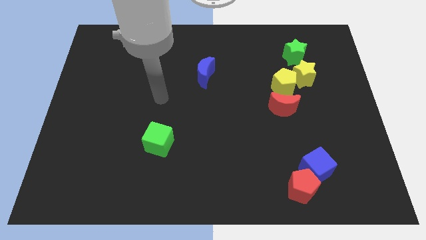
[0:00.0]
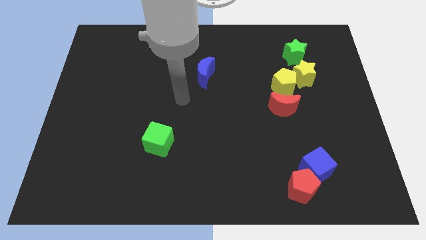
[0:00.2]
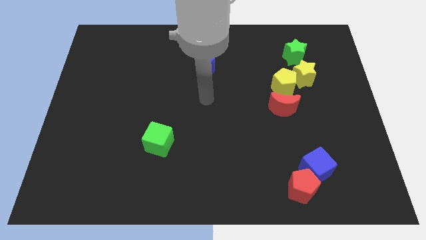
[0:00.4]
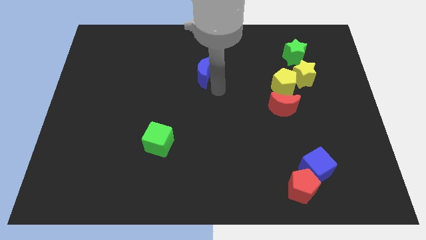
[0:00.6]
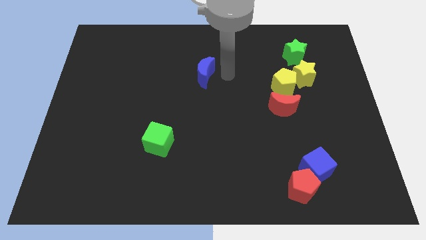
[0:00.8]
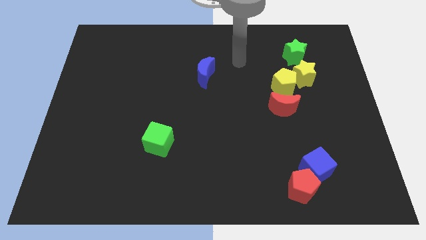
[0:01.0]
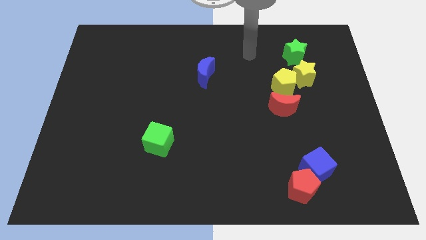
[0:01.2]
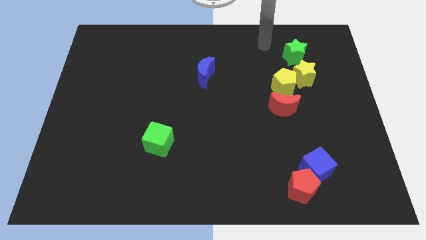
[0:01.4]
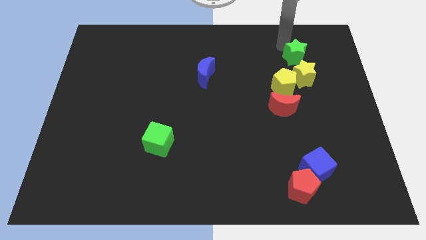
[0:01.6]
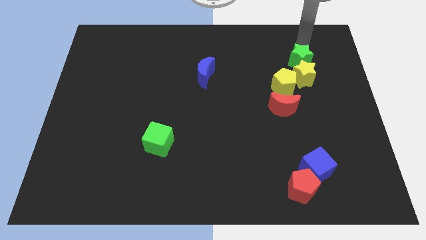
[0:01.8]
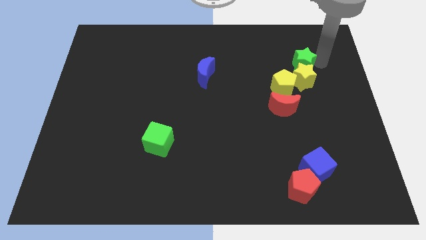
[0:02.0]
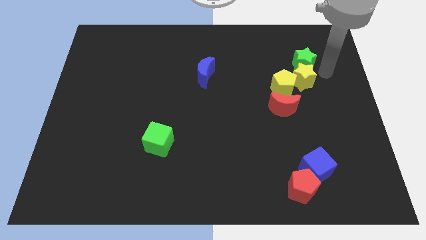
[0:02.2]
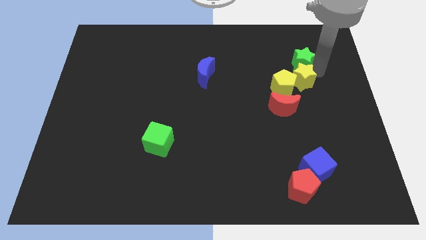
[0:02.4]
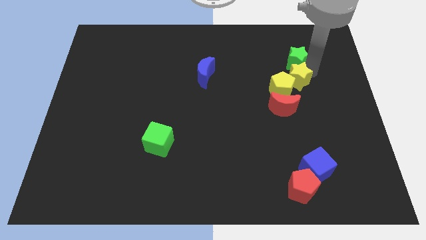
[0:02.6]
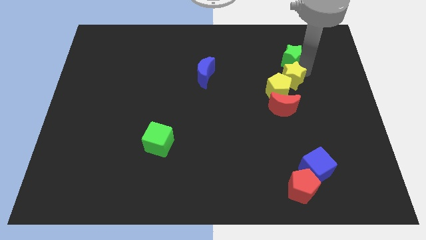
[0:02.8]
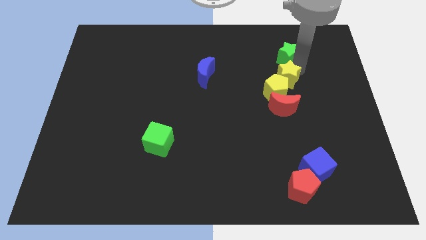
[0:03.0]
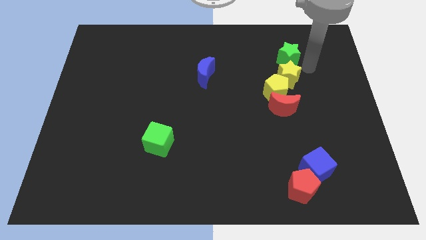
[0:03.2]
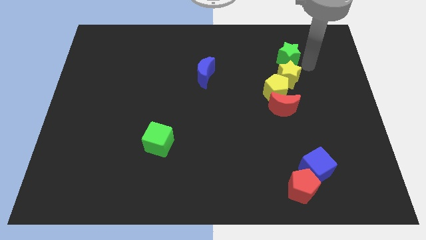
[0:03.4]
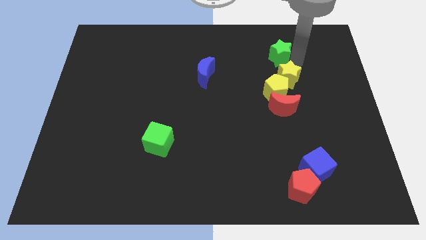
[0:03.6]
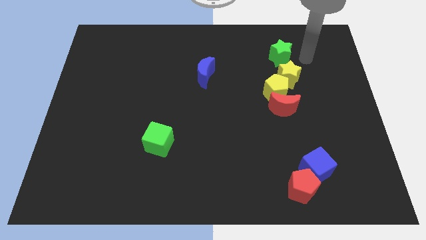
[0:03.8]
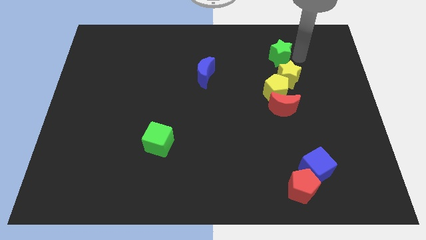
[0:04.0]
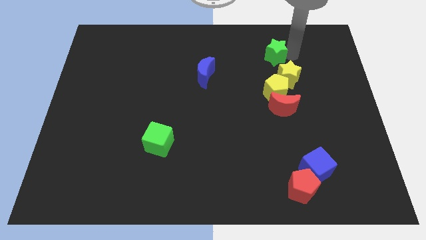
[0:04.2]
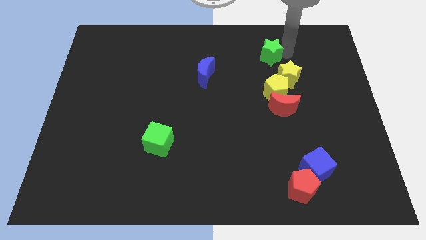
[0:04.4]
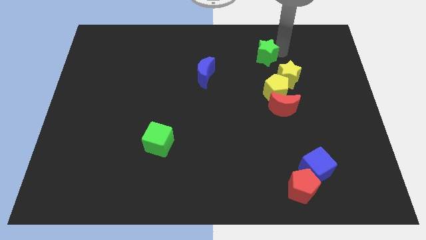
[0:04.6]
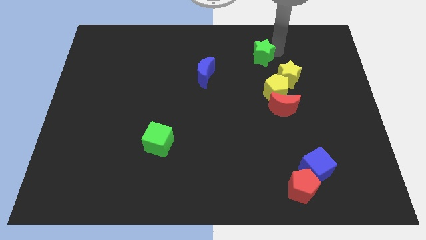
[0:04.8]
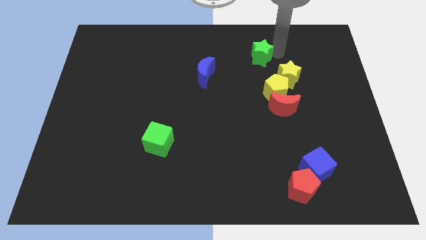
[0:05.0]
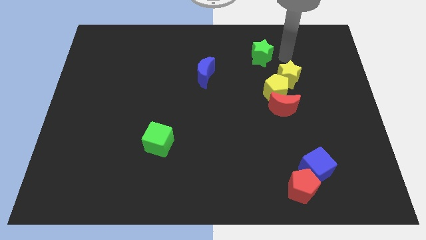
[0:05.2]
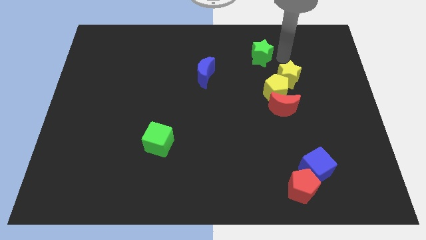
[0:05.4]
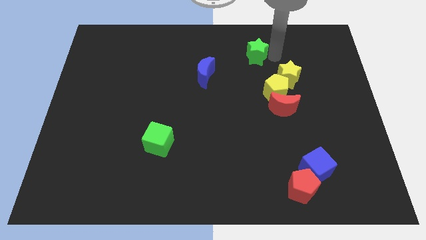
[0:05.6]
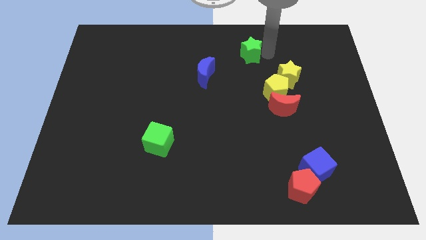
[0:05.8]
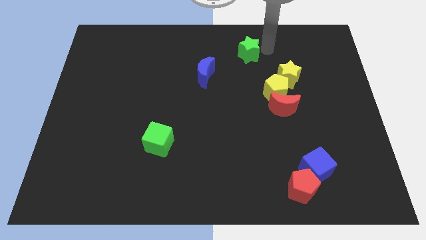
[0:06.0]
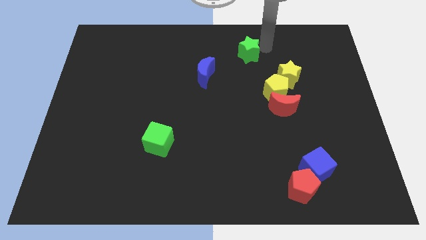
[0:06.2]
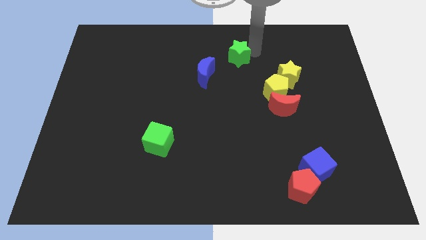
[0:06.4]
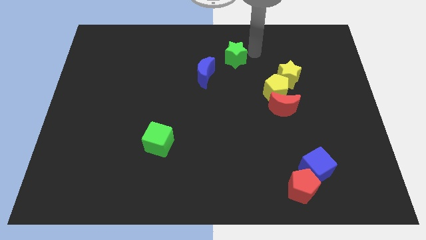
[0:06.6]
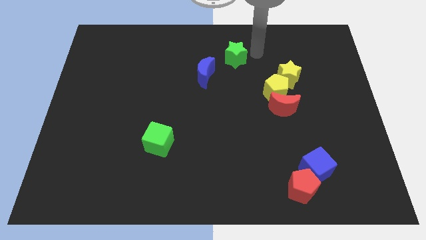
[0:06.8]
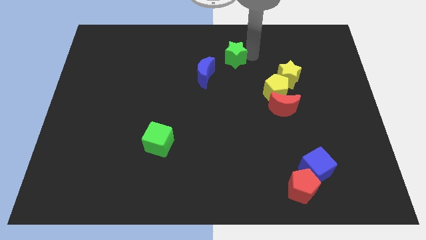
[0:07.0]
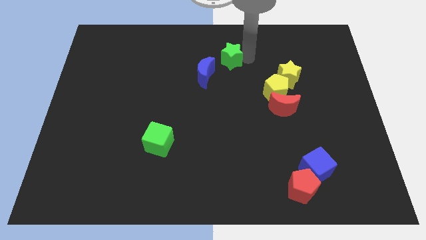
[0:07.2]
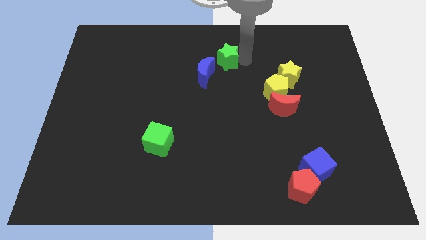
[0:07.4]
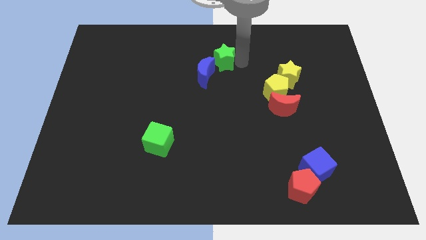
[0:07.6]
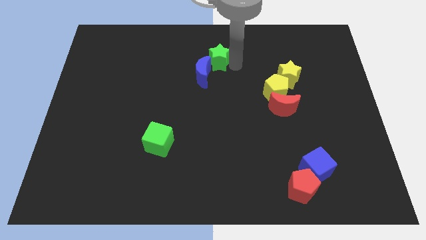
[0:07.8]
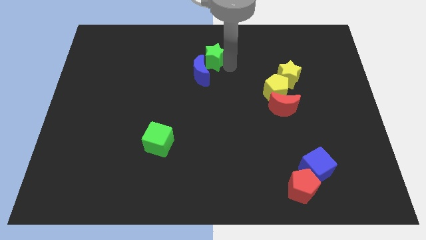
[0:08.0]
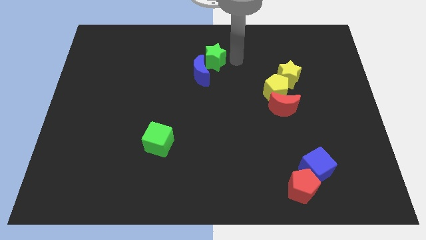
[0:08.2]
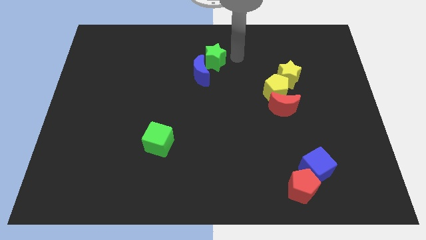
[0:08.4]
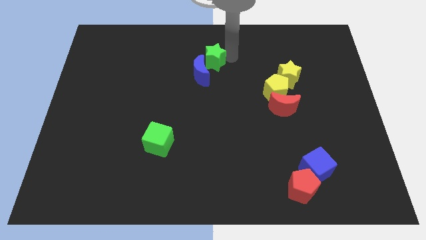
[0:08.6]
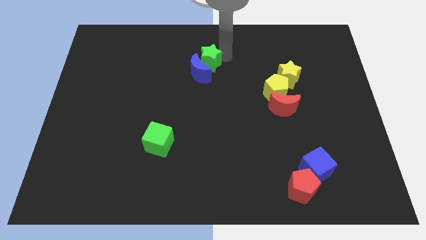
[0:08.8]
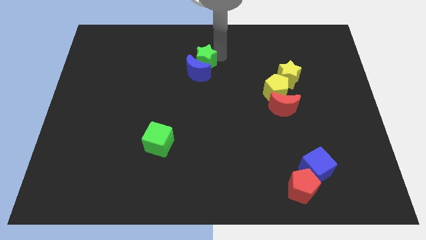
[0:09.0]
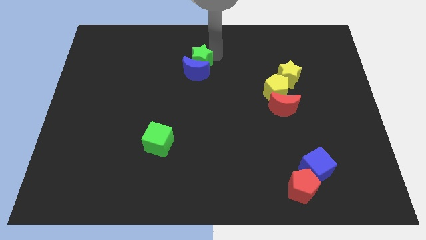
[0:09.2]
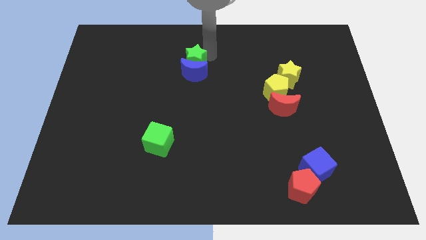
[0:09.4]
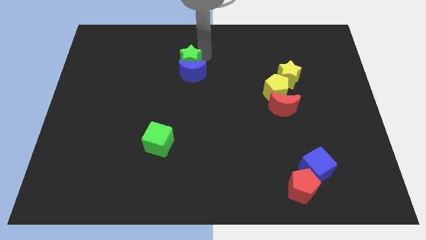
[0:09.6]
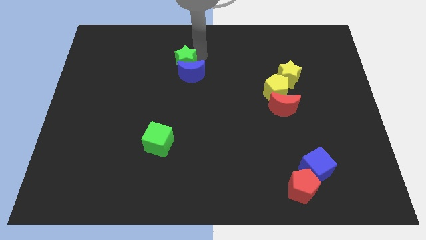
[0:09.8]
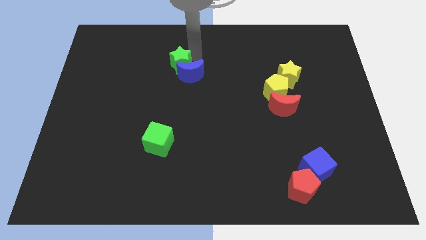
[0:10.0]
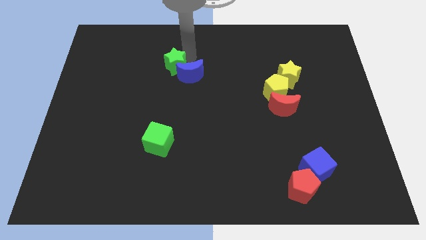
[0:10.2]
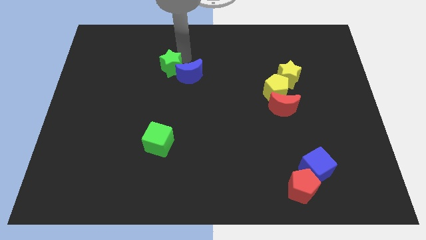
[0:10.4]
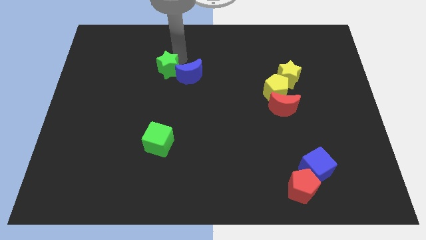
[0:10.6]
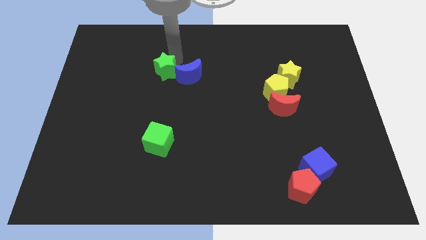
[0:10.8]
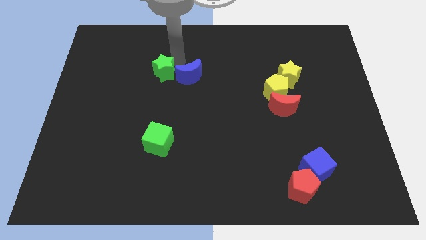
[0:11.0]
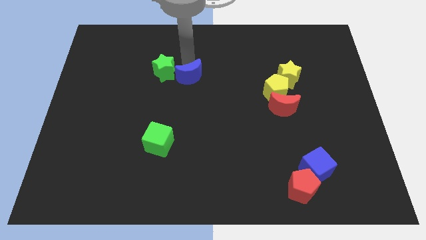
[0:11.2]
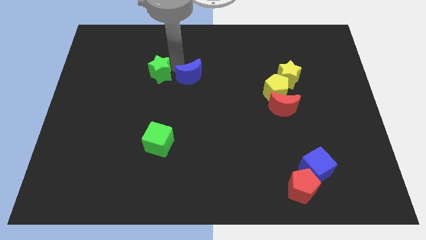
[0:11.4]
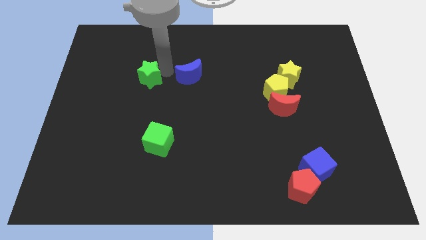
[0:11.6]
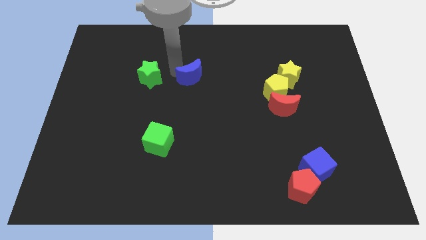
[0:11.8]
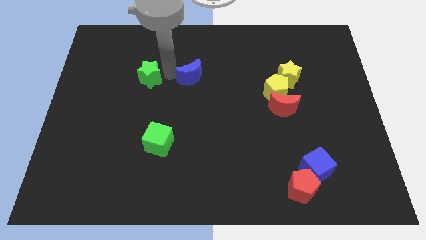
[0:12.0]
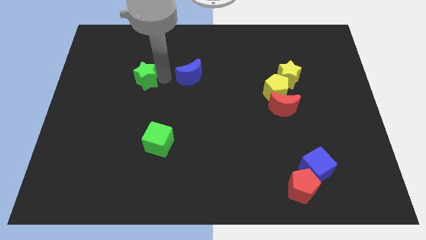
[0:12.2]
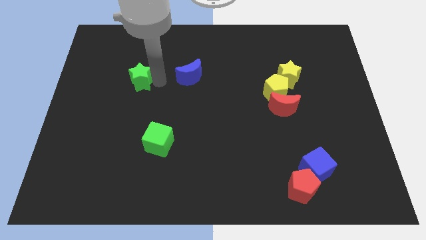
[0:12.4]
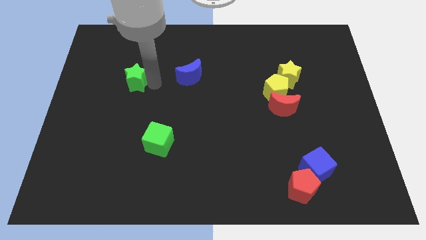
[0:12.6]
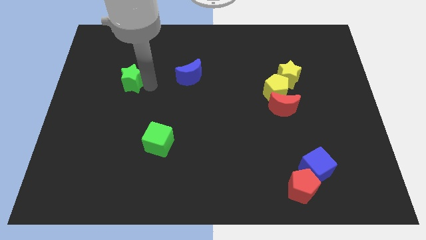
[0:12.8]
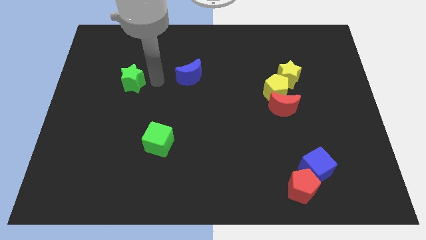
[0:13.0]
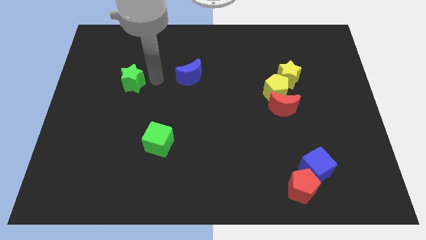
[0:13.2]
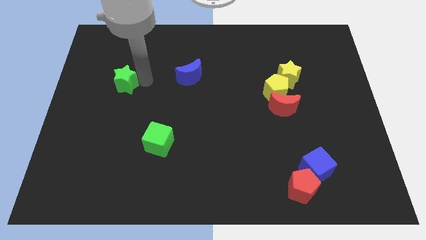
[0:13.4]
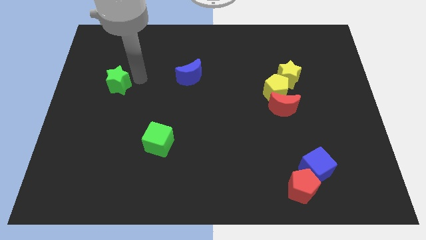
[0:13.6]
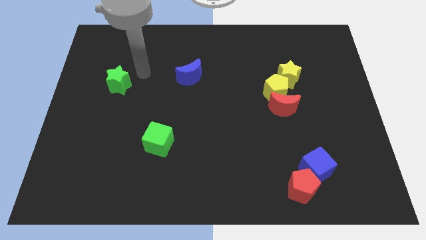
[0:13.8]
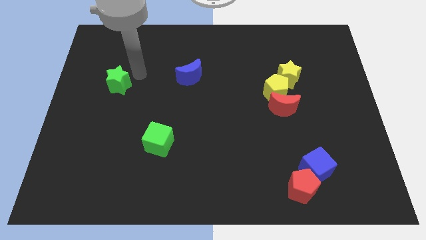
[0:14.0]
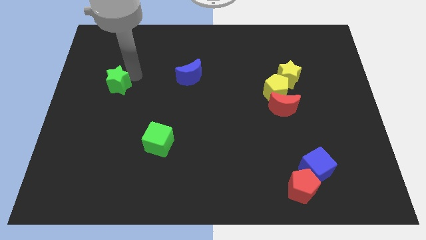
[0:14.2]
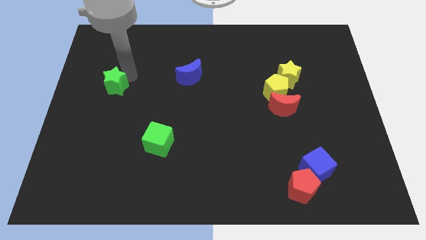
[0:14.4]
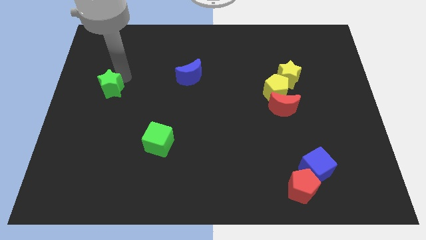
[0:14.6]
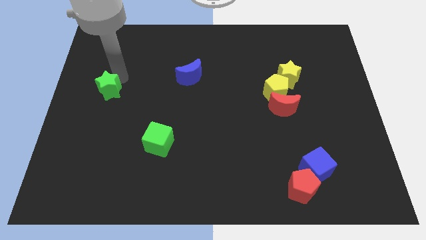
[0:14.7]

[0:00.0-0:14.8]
slide the green star to the center left
